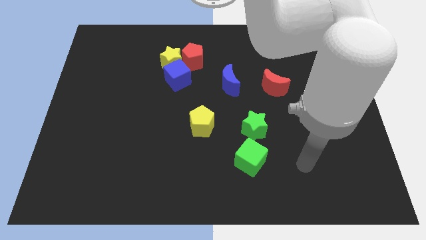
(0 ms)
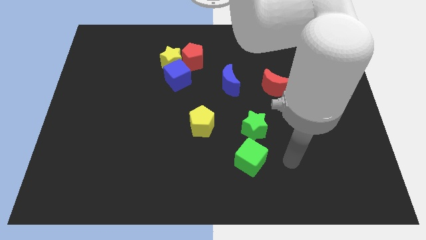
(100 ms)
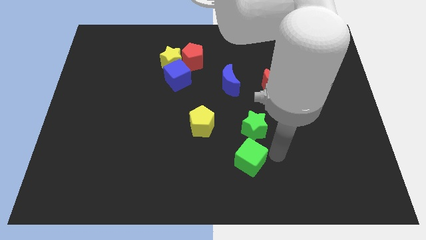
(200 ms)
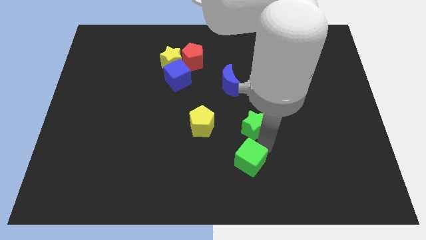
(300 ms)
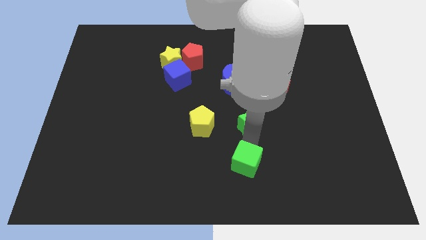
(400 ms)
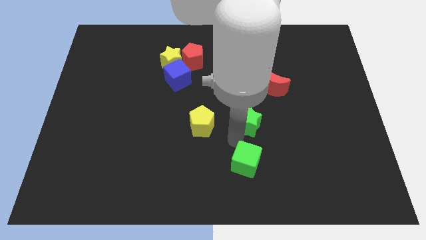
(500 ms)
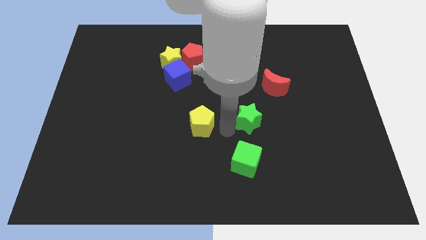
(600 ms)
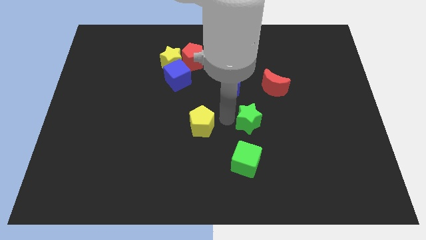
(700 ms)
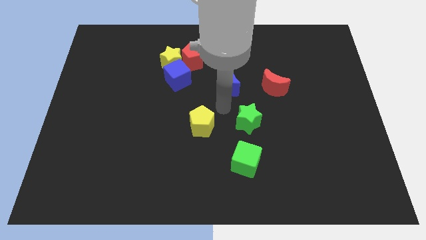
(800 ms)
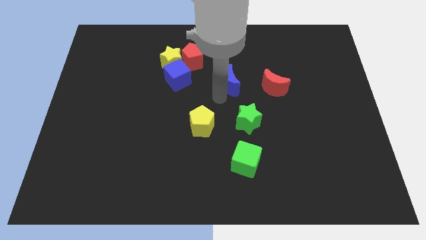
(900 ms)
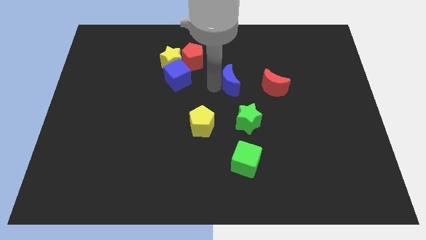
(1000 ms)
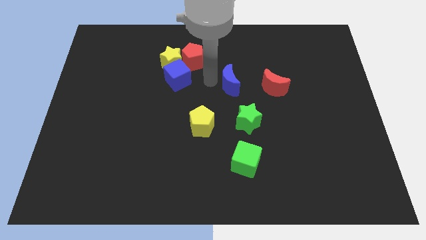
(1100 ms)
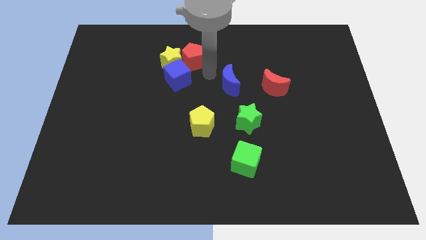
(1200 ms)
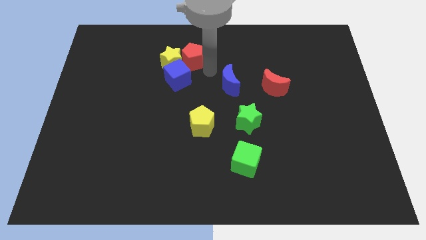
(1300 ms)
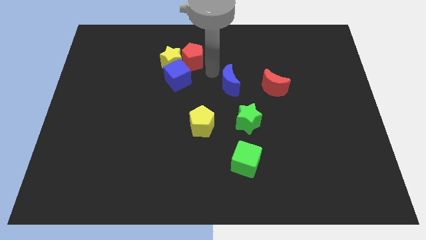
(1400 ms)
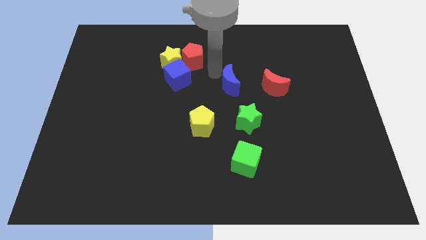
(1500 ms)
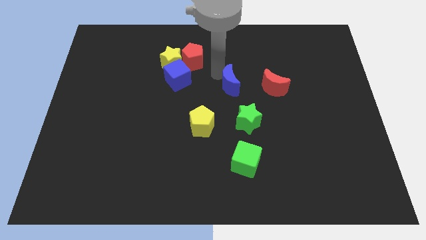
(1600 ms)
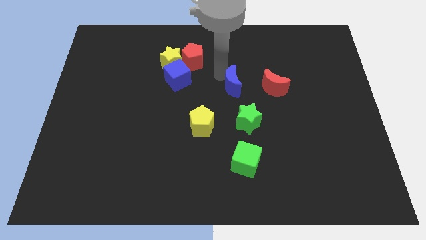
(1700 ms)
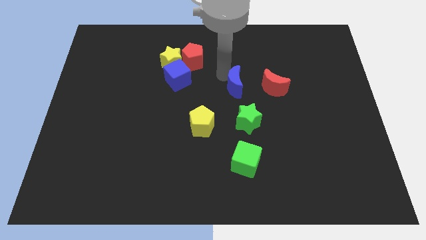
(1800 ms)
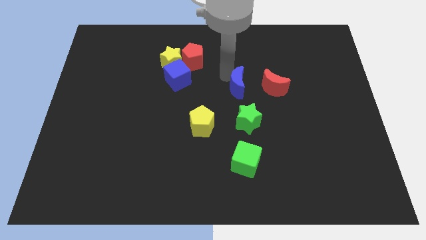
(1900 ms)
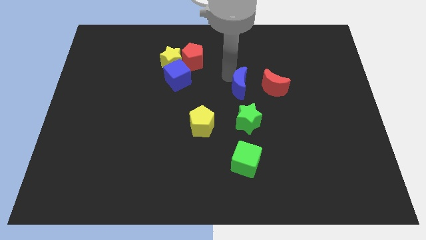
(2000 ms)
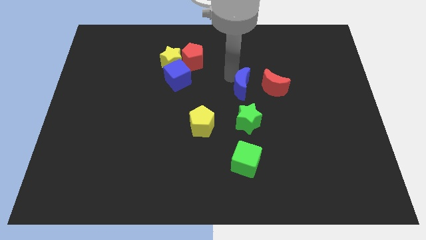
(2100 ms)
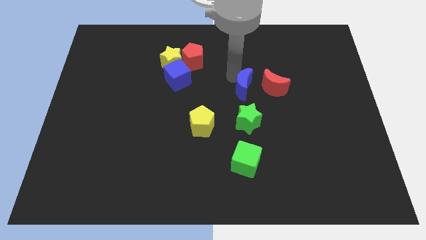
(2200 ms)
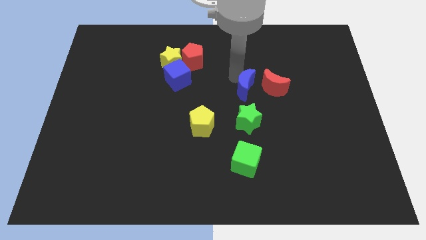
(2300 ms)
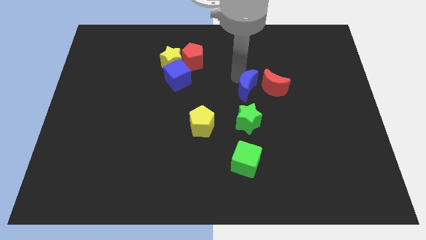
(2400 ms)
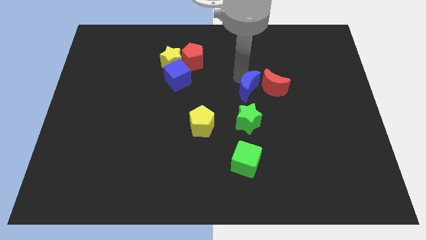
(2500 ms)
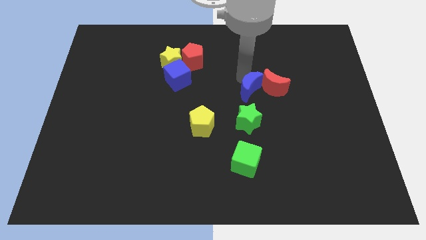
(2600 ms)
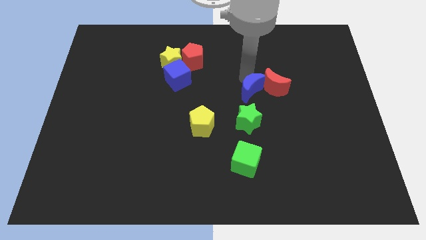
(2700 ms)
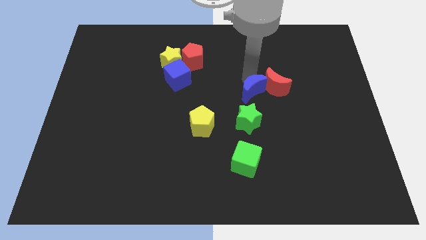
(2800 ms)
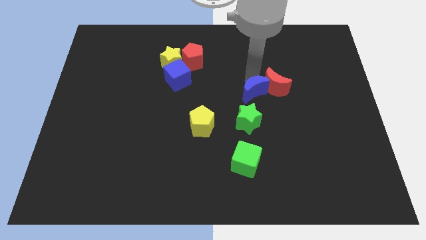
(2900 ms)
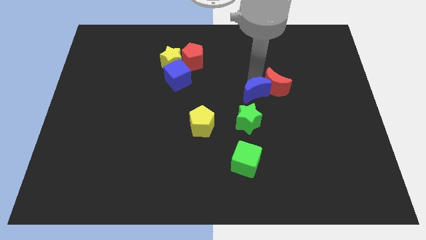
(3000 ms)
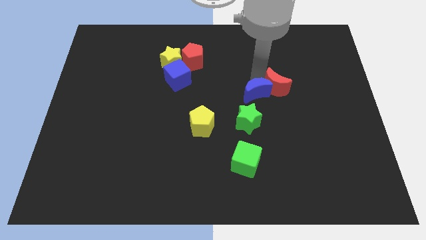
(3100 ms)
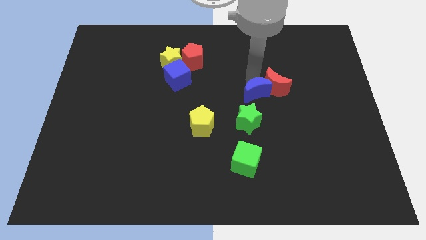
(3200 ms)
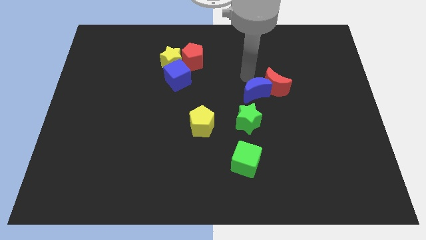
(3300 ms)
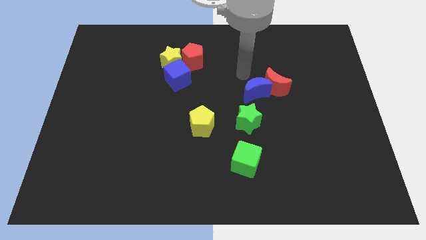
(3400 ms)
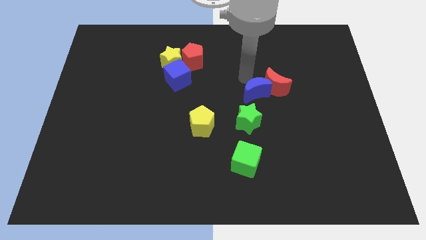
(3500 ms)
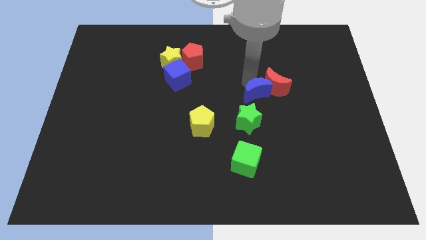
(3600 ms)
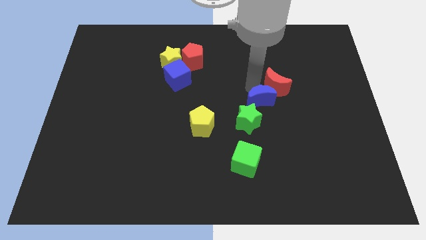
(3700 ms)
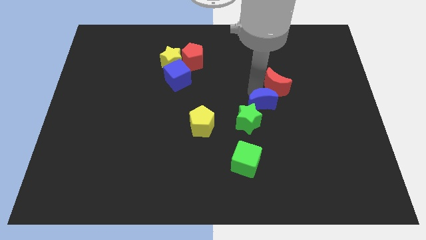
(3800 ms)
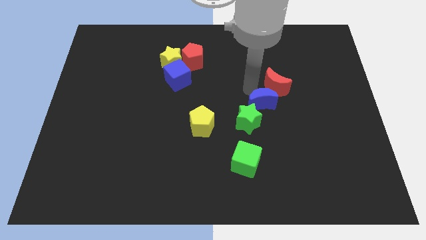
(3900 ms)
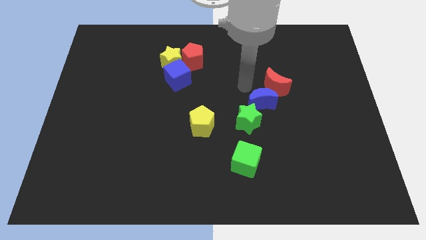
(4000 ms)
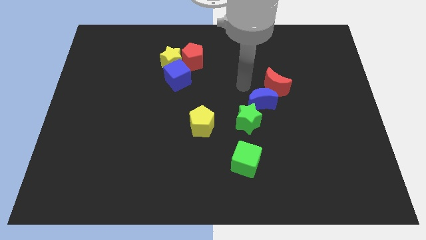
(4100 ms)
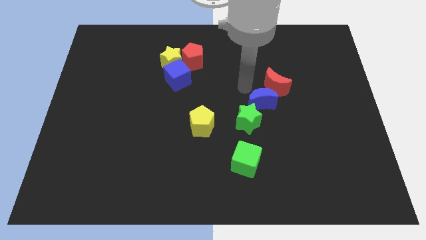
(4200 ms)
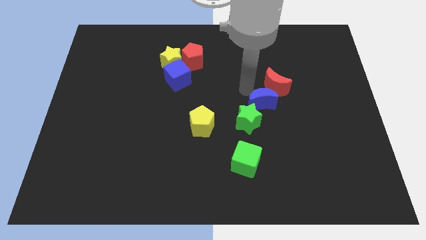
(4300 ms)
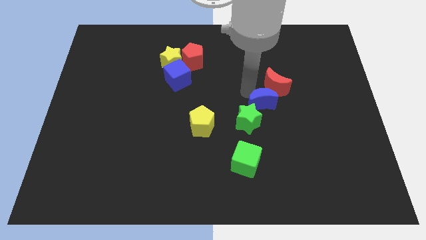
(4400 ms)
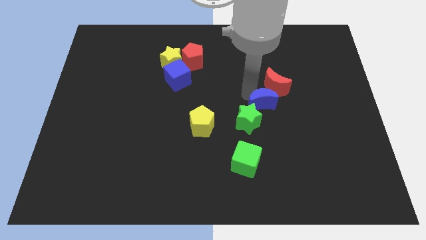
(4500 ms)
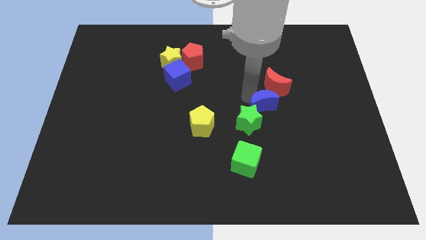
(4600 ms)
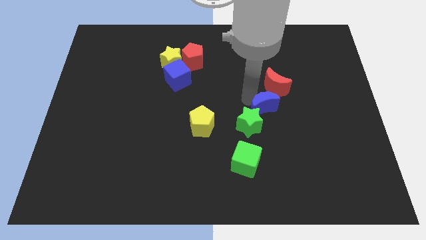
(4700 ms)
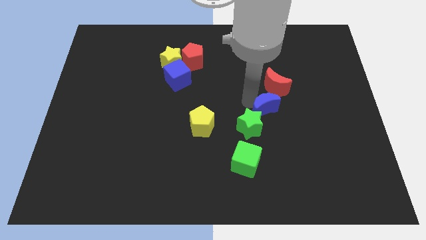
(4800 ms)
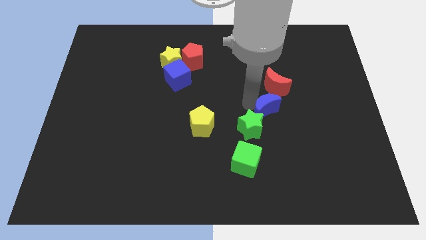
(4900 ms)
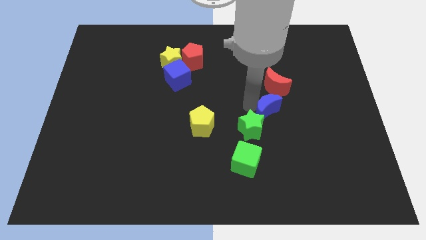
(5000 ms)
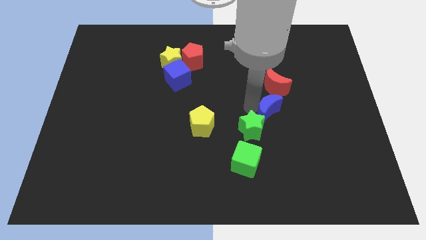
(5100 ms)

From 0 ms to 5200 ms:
push the blue moon just right of the green star

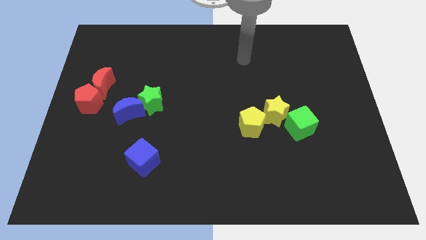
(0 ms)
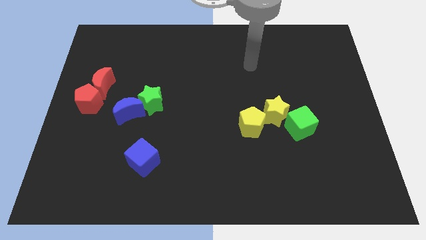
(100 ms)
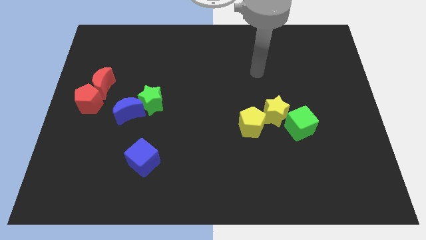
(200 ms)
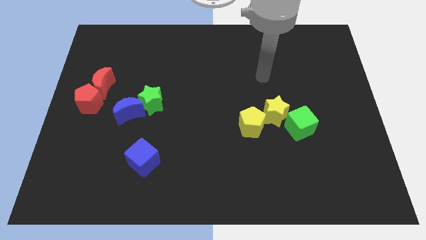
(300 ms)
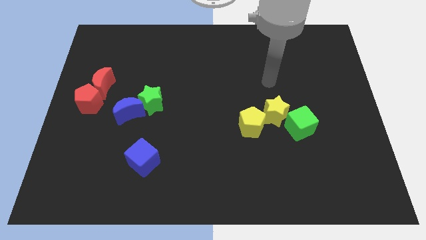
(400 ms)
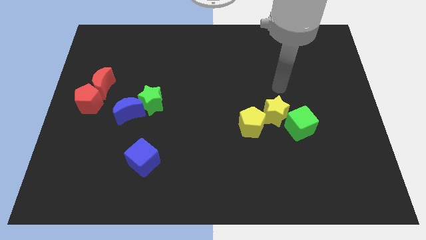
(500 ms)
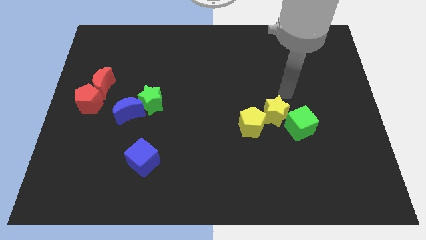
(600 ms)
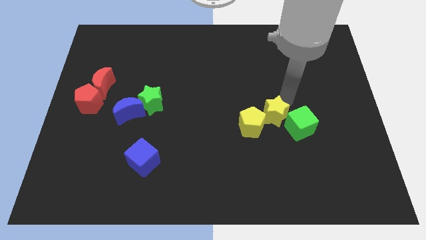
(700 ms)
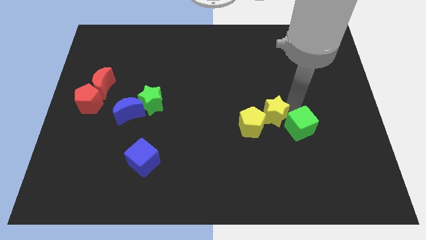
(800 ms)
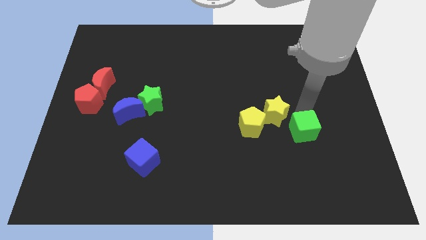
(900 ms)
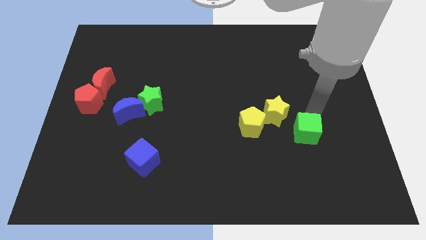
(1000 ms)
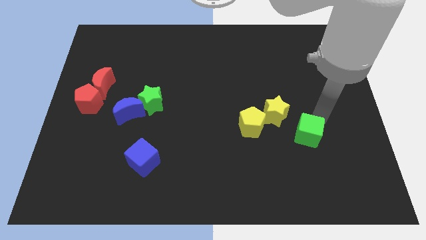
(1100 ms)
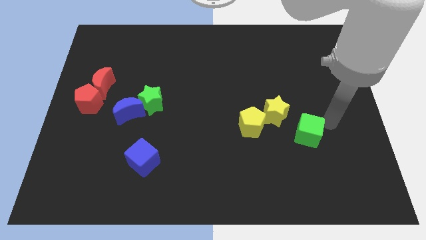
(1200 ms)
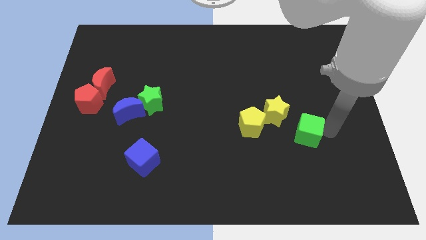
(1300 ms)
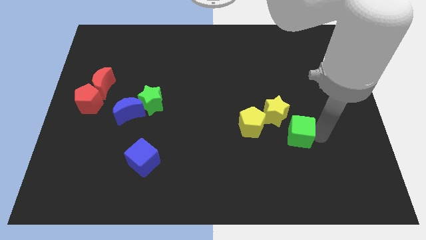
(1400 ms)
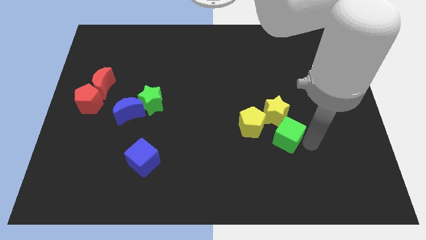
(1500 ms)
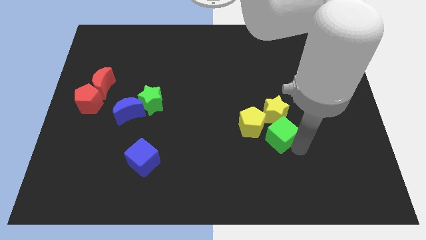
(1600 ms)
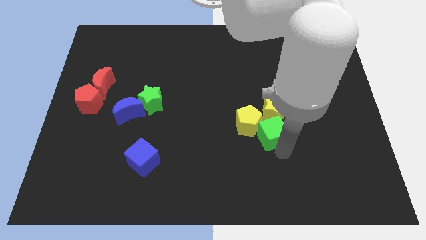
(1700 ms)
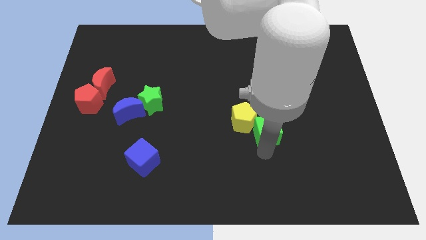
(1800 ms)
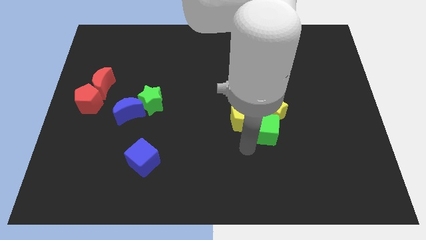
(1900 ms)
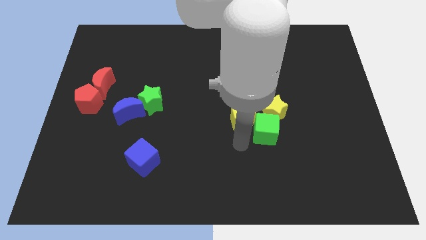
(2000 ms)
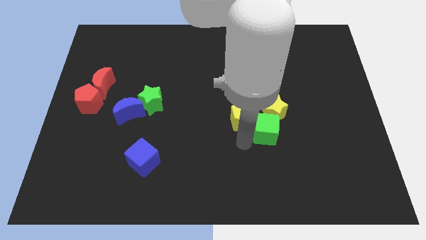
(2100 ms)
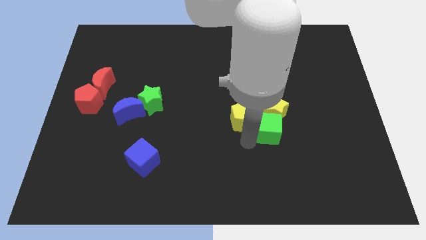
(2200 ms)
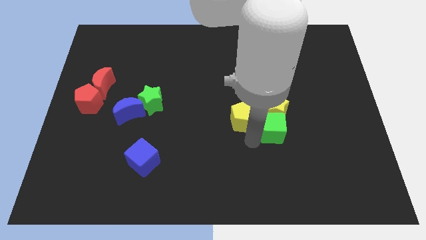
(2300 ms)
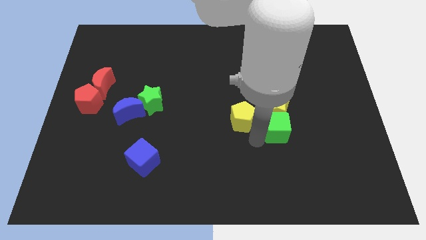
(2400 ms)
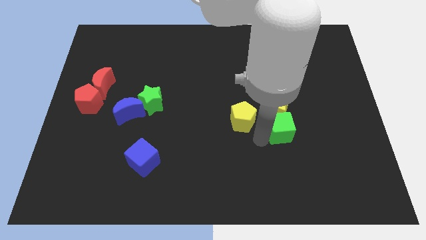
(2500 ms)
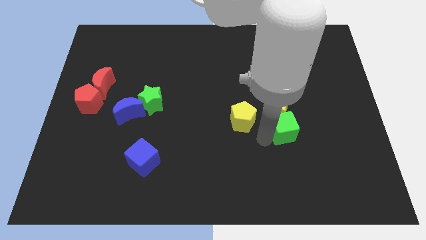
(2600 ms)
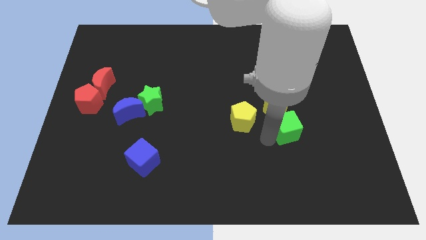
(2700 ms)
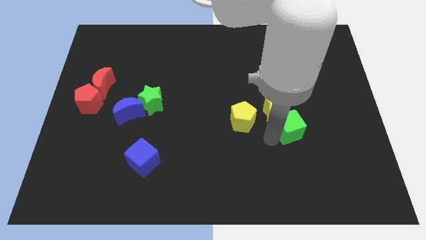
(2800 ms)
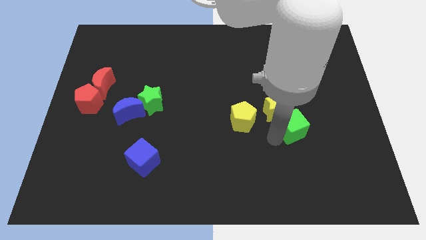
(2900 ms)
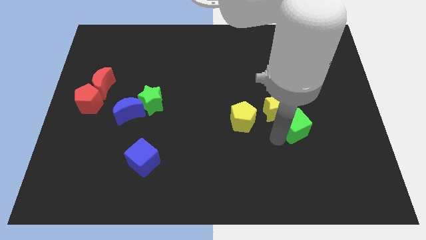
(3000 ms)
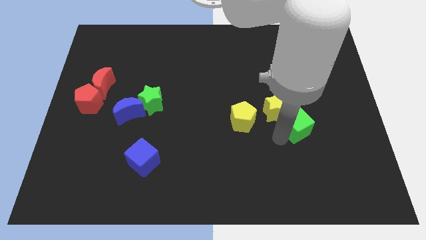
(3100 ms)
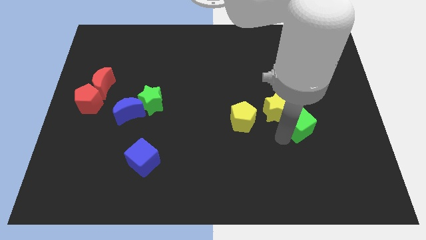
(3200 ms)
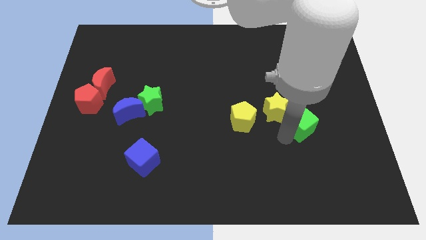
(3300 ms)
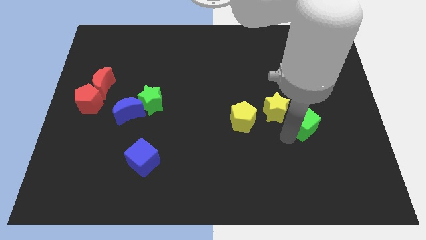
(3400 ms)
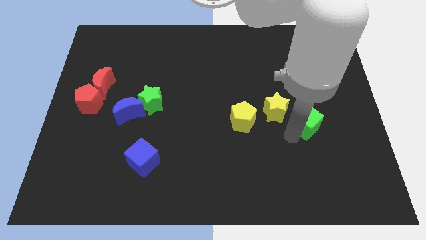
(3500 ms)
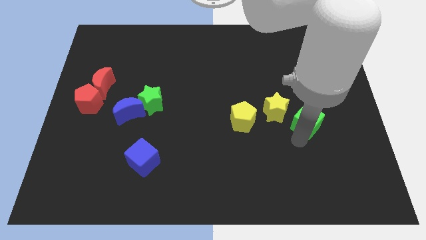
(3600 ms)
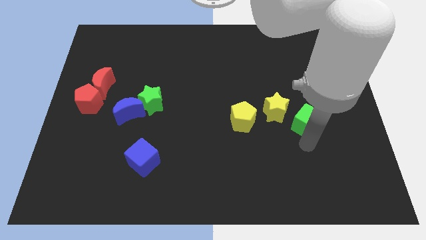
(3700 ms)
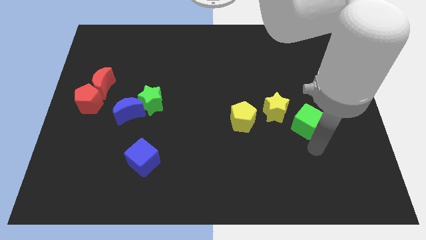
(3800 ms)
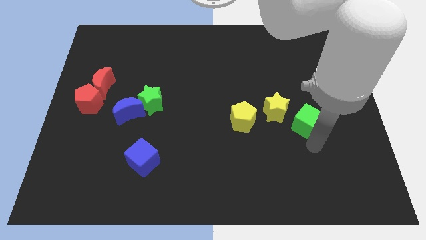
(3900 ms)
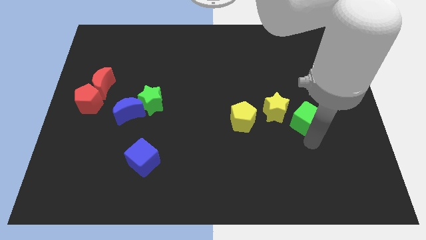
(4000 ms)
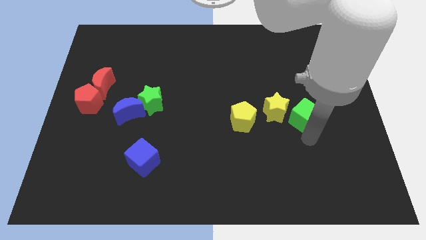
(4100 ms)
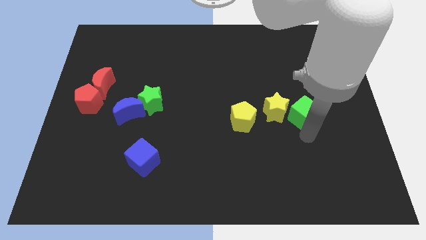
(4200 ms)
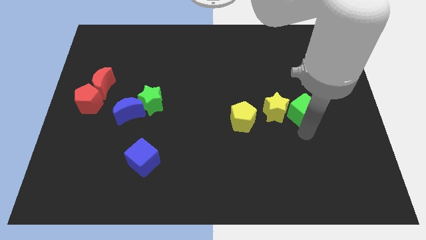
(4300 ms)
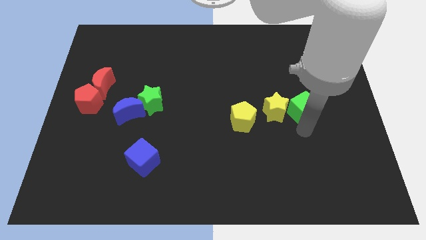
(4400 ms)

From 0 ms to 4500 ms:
push the green cube to the top right of the yellow star
